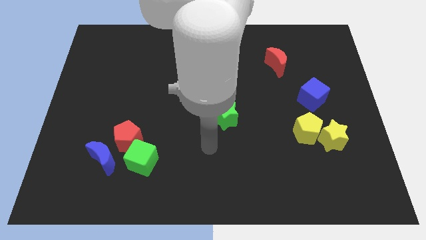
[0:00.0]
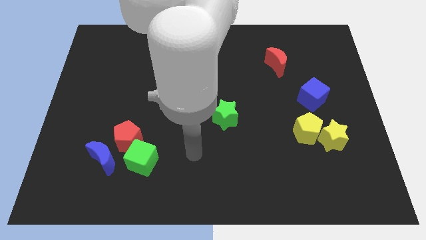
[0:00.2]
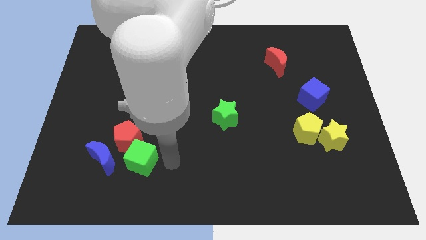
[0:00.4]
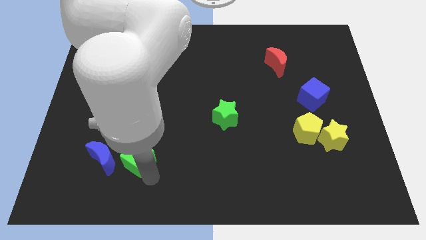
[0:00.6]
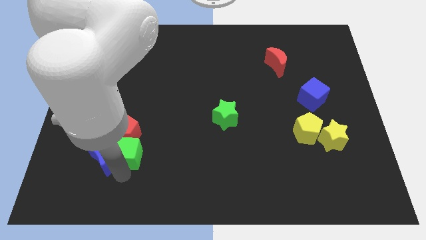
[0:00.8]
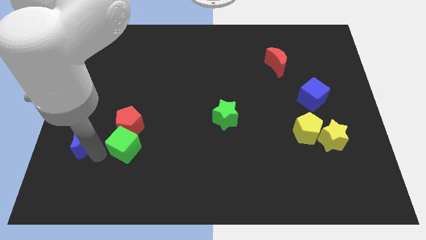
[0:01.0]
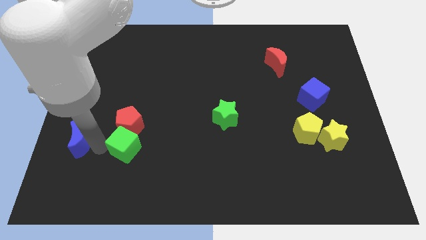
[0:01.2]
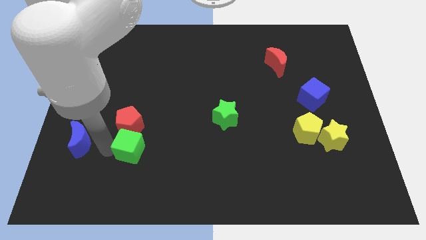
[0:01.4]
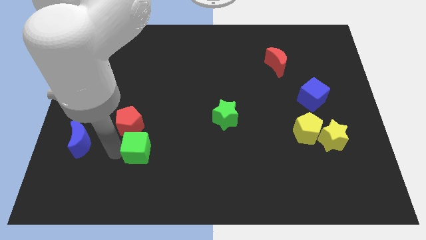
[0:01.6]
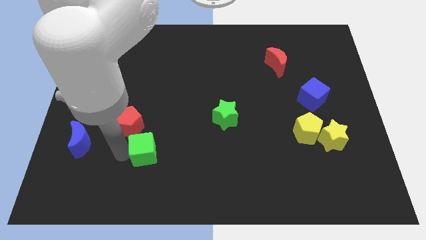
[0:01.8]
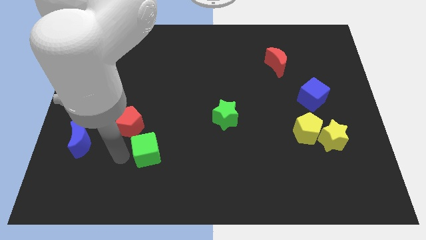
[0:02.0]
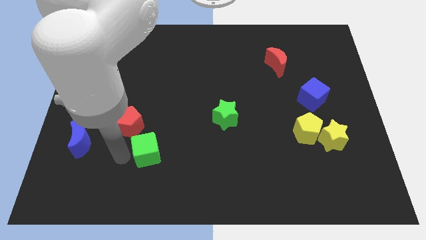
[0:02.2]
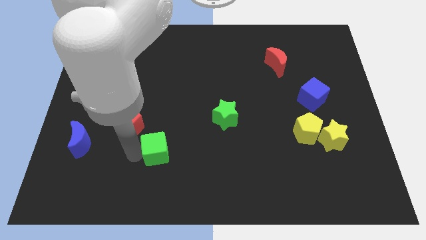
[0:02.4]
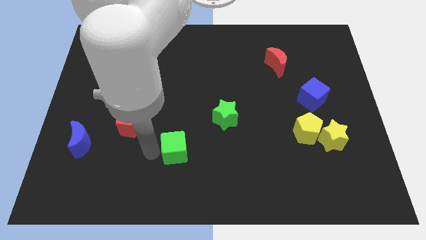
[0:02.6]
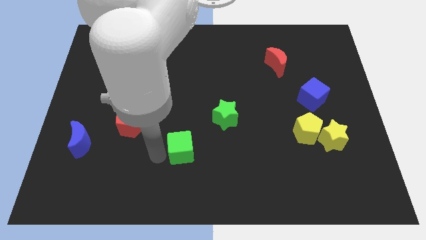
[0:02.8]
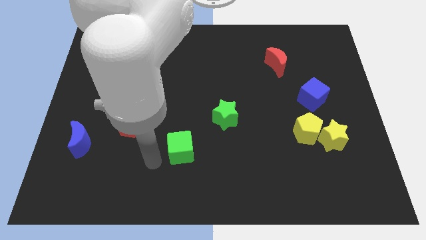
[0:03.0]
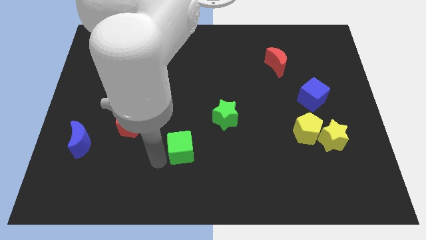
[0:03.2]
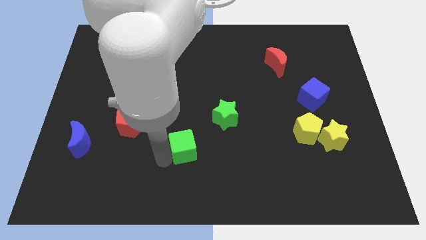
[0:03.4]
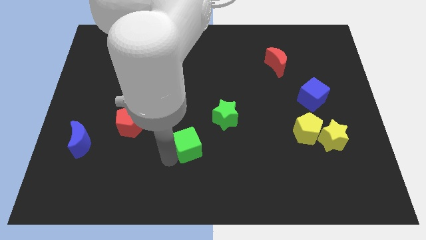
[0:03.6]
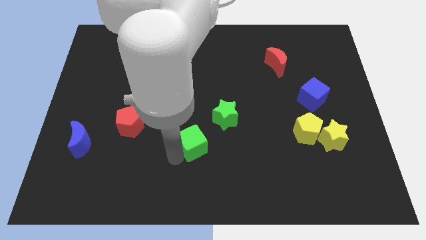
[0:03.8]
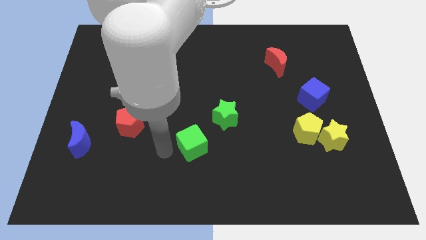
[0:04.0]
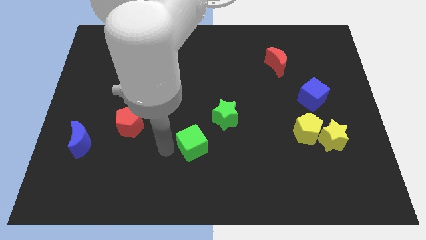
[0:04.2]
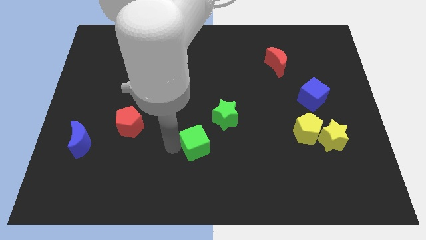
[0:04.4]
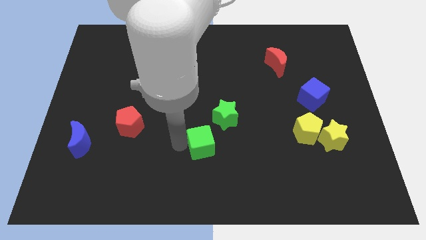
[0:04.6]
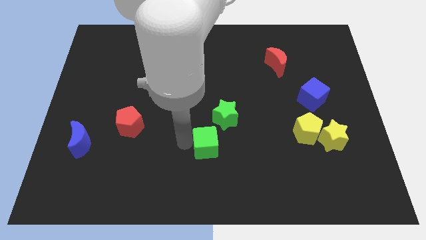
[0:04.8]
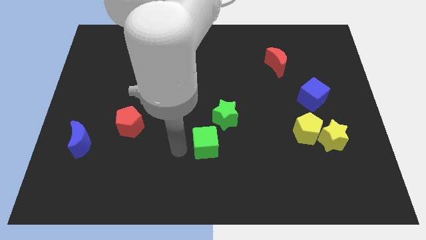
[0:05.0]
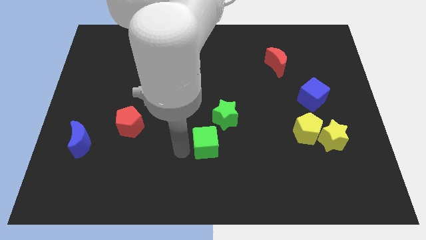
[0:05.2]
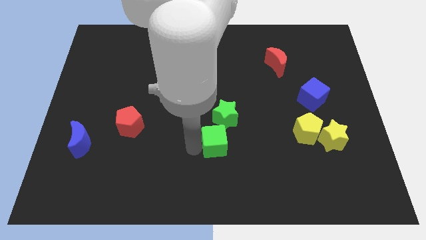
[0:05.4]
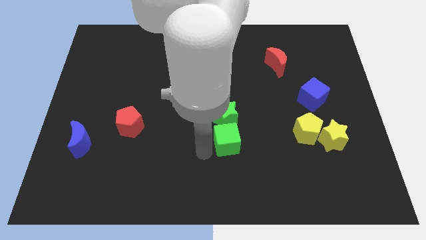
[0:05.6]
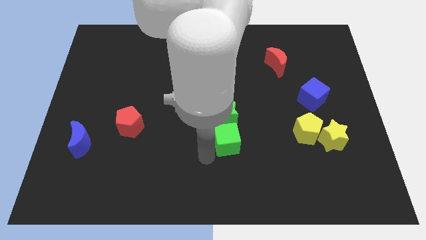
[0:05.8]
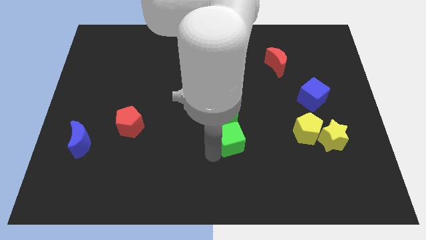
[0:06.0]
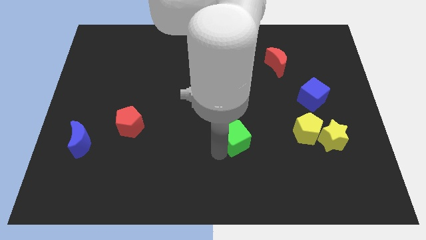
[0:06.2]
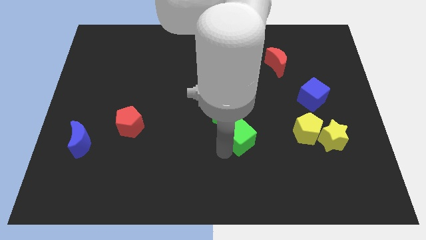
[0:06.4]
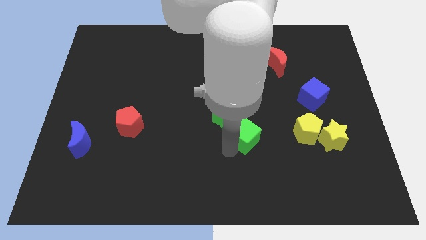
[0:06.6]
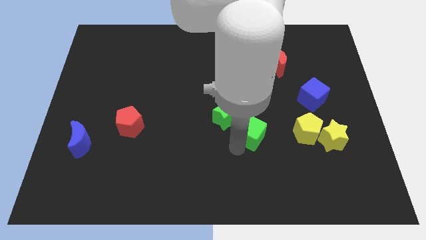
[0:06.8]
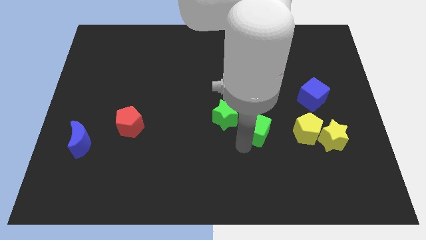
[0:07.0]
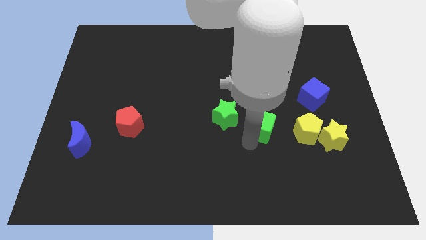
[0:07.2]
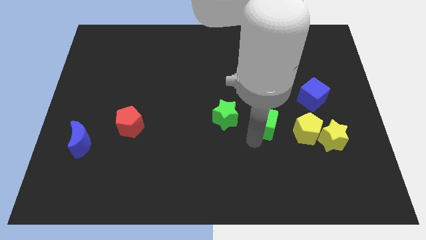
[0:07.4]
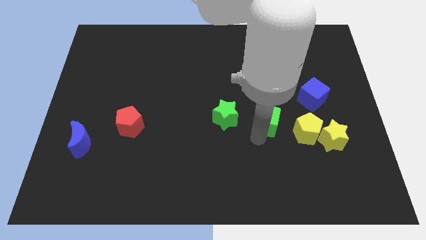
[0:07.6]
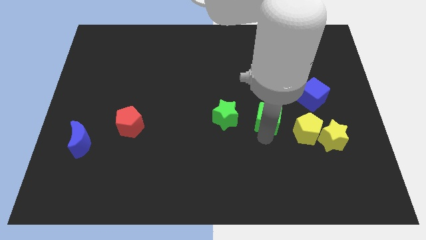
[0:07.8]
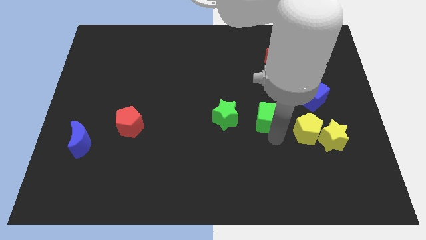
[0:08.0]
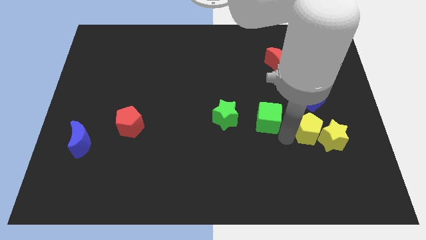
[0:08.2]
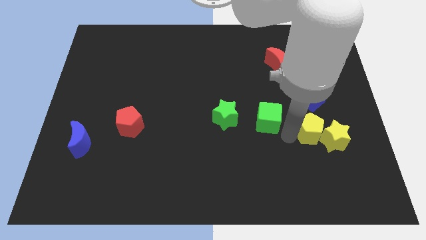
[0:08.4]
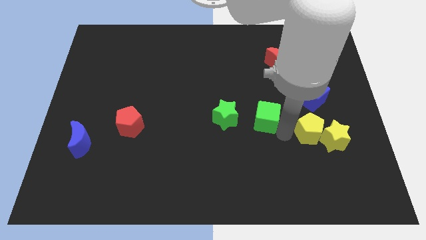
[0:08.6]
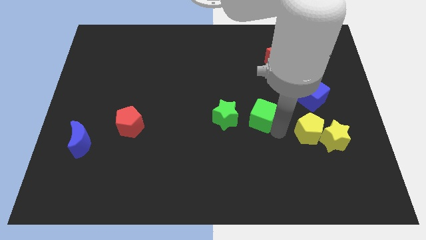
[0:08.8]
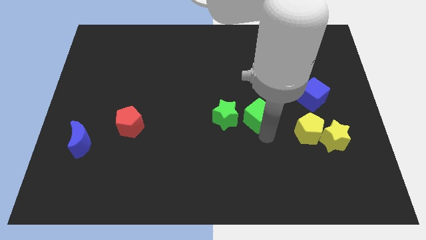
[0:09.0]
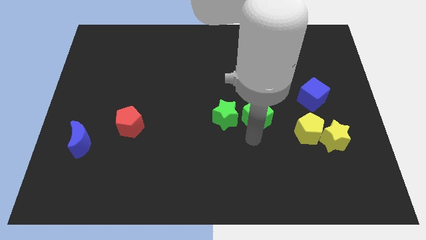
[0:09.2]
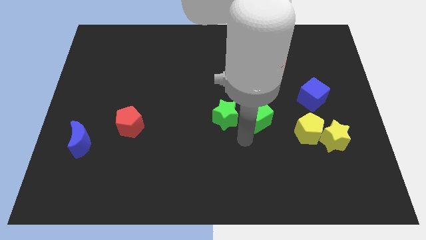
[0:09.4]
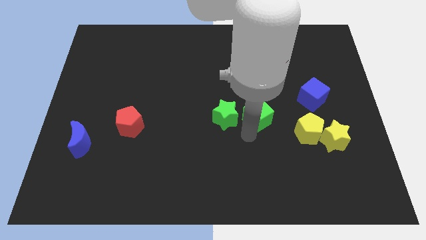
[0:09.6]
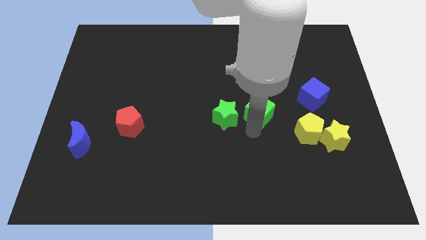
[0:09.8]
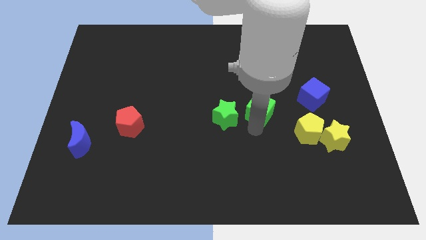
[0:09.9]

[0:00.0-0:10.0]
put the green cube left of the blue cube

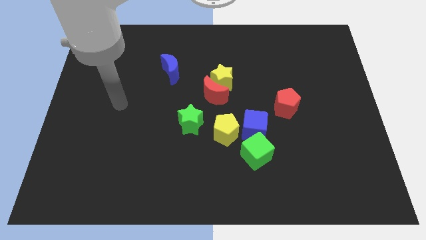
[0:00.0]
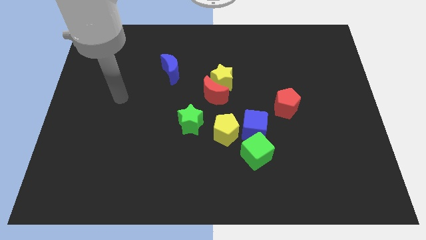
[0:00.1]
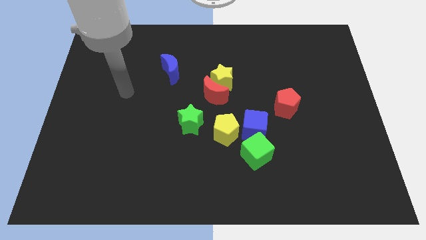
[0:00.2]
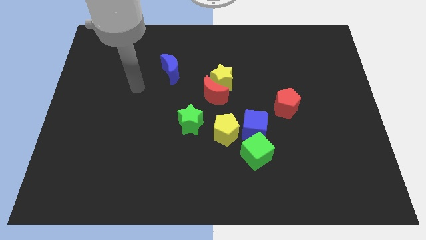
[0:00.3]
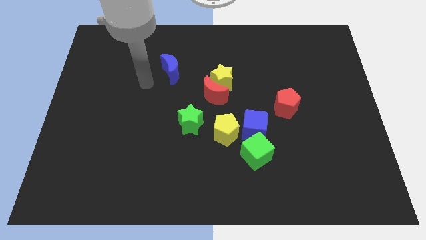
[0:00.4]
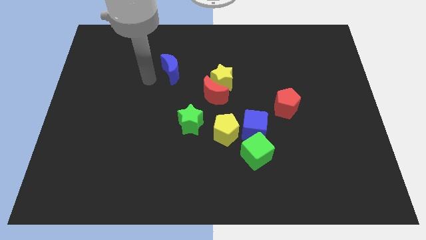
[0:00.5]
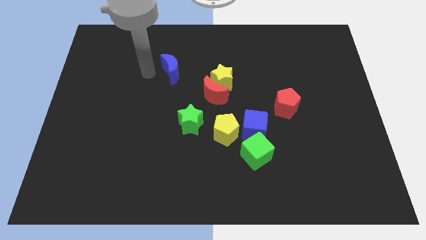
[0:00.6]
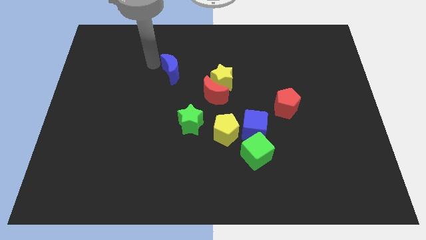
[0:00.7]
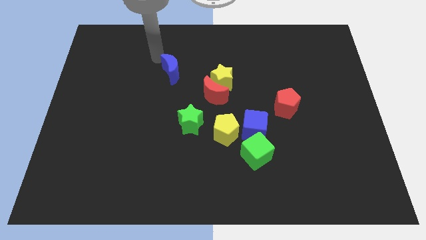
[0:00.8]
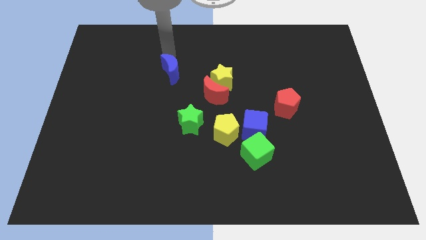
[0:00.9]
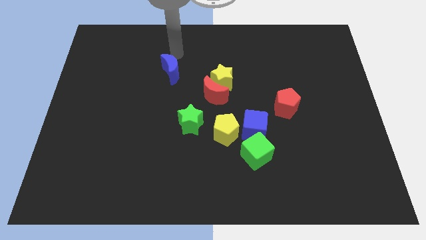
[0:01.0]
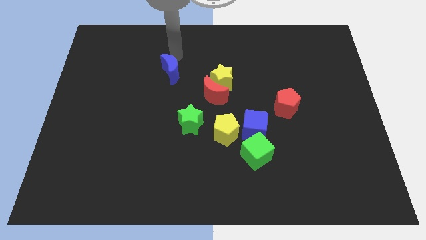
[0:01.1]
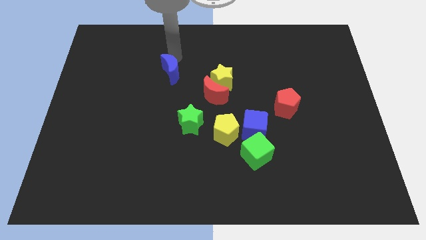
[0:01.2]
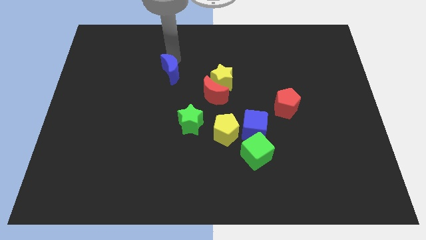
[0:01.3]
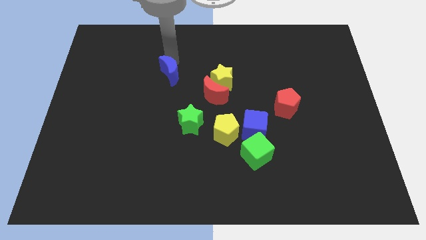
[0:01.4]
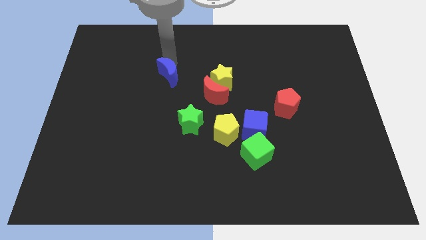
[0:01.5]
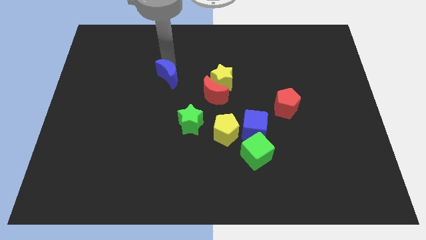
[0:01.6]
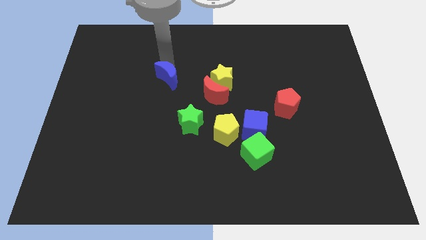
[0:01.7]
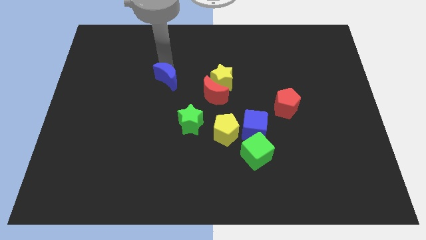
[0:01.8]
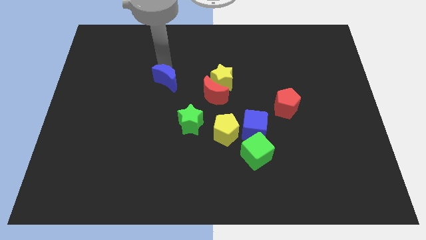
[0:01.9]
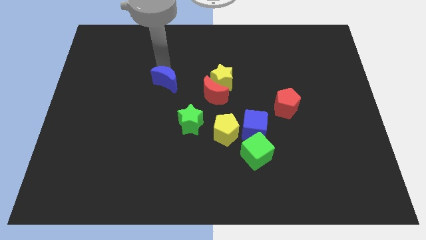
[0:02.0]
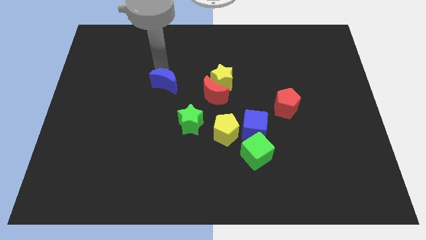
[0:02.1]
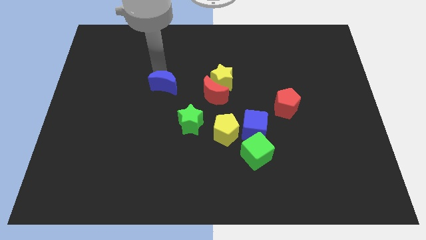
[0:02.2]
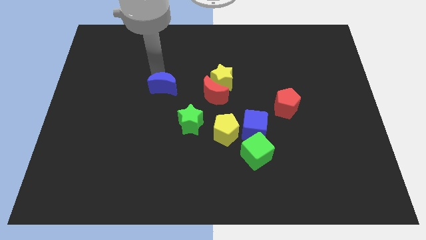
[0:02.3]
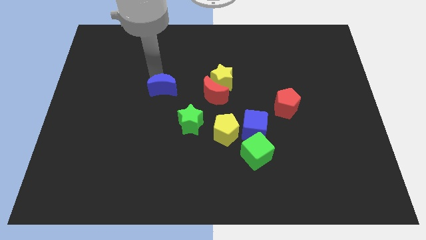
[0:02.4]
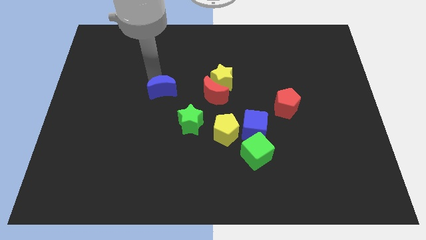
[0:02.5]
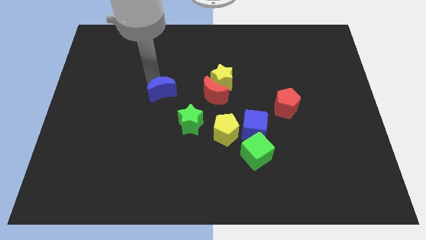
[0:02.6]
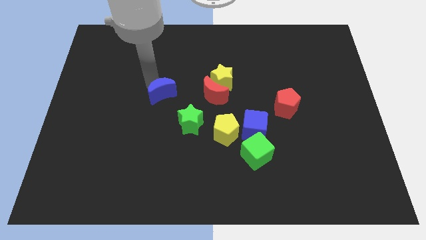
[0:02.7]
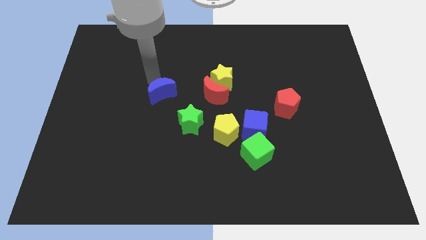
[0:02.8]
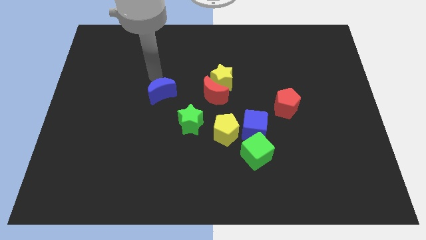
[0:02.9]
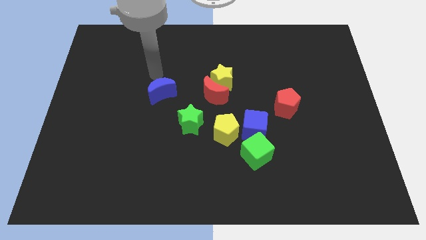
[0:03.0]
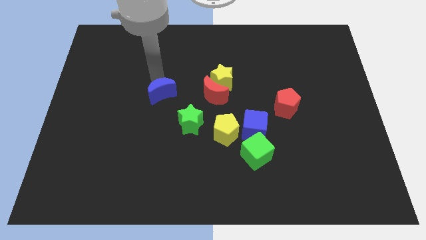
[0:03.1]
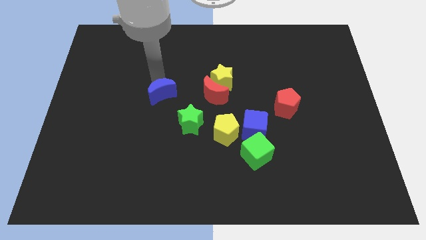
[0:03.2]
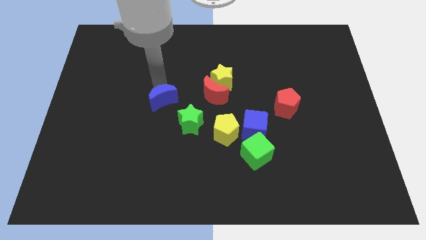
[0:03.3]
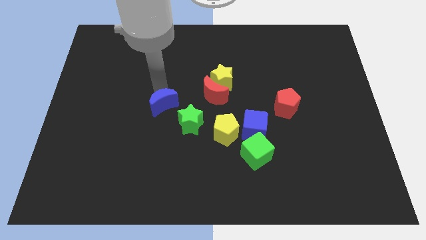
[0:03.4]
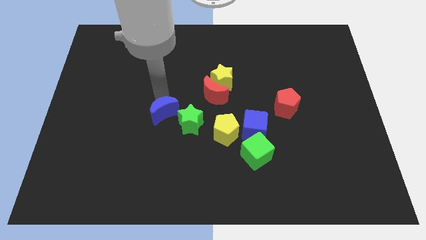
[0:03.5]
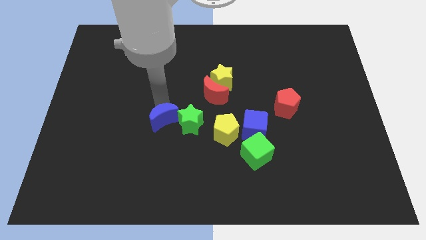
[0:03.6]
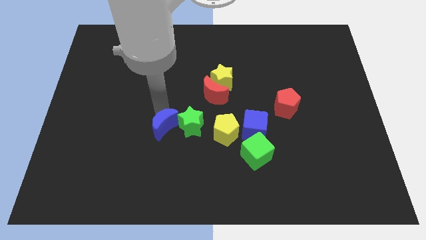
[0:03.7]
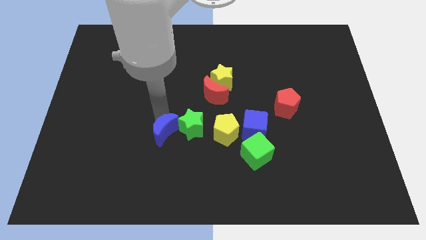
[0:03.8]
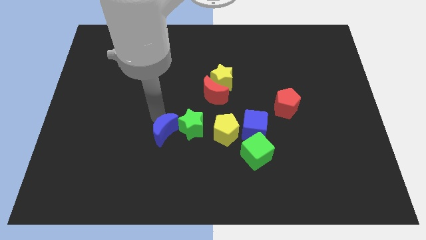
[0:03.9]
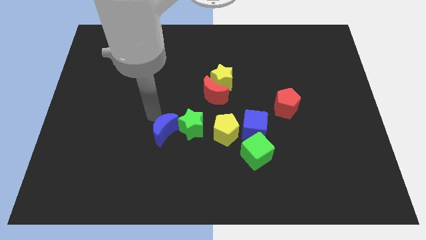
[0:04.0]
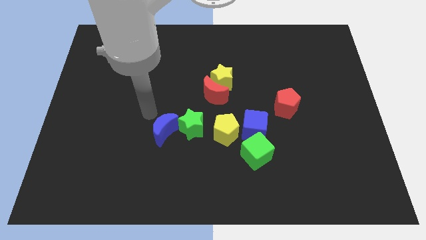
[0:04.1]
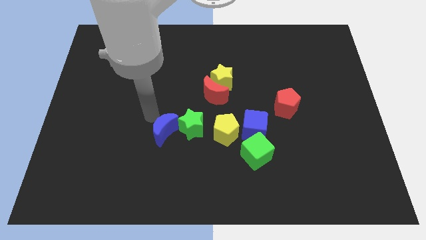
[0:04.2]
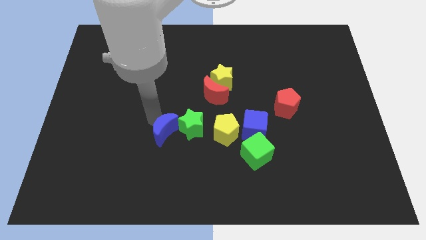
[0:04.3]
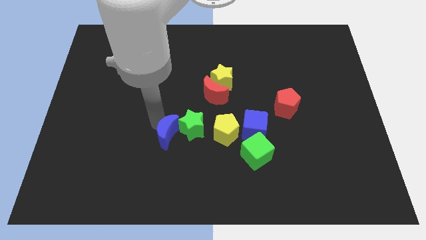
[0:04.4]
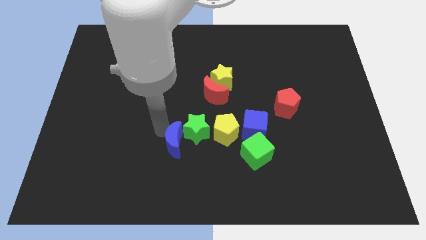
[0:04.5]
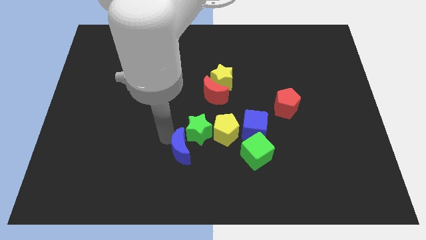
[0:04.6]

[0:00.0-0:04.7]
put the blue moon left of the green cube
